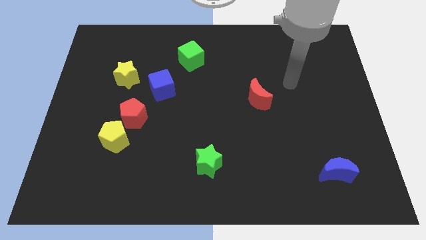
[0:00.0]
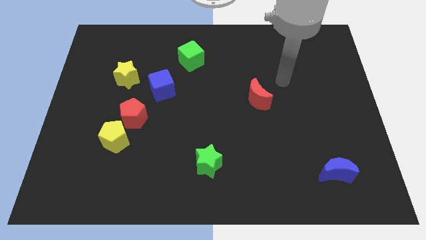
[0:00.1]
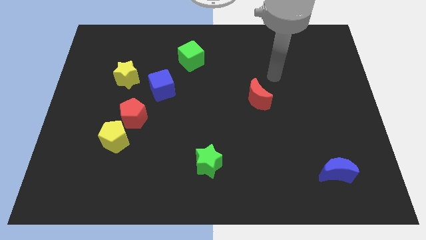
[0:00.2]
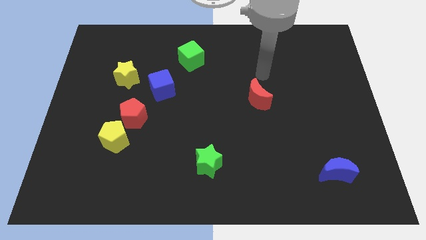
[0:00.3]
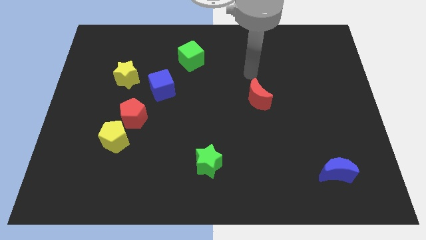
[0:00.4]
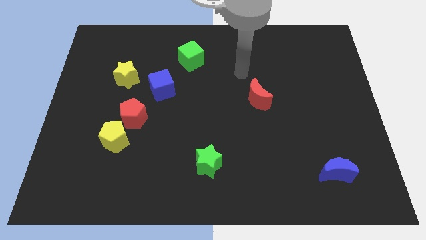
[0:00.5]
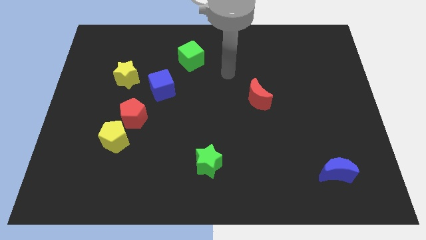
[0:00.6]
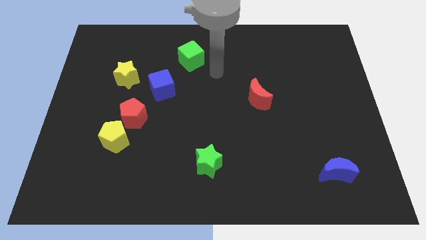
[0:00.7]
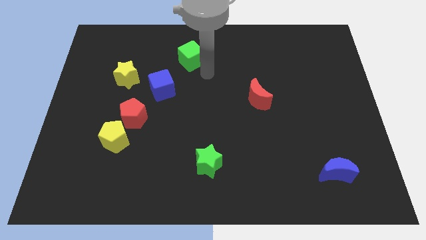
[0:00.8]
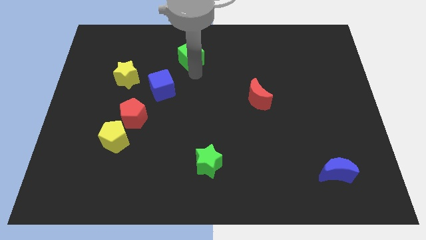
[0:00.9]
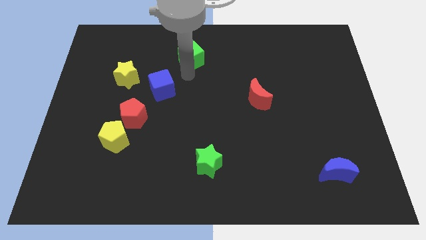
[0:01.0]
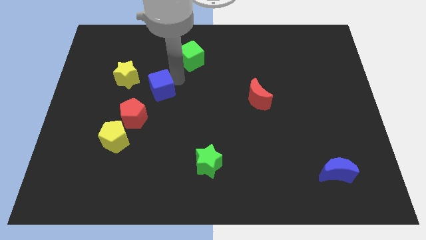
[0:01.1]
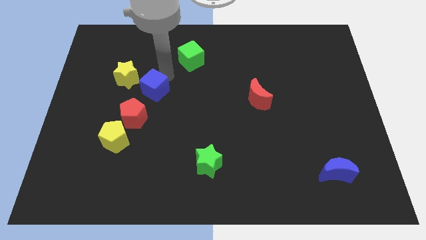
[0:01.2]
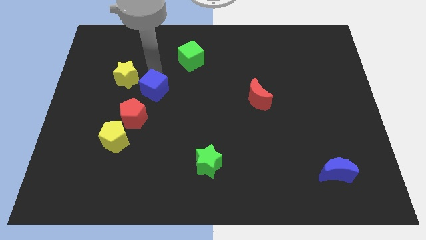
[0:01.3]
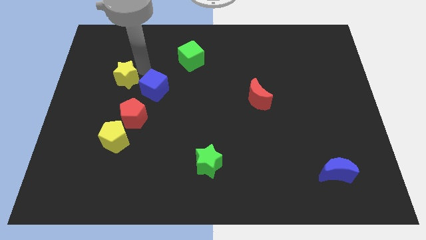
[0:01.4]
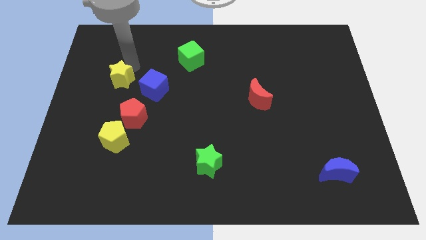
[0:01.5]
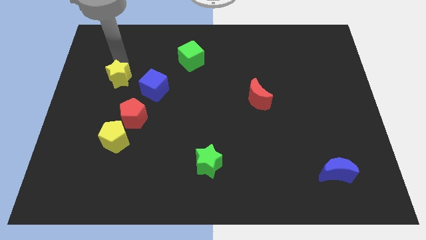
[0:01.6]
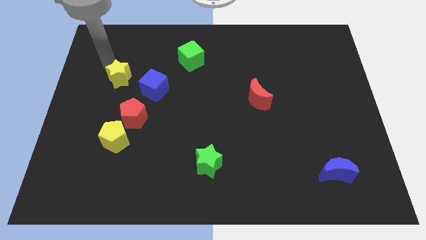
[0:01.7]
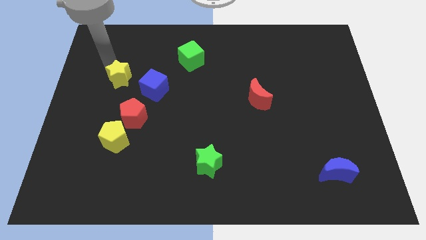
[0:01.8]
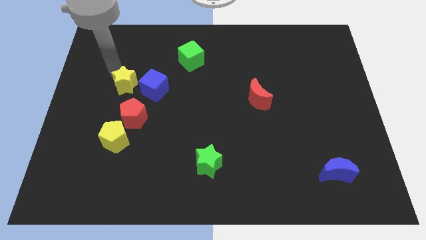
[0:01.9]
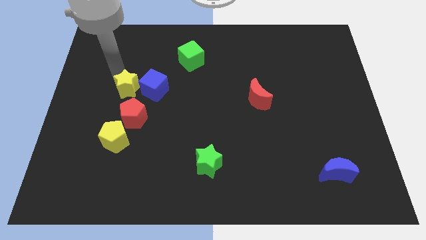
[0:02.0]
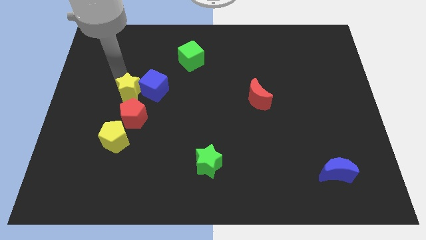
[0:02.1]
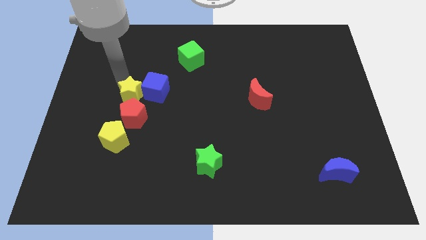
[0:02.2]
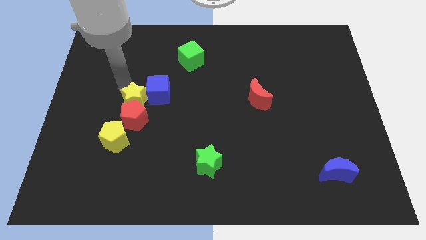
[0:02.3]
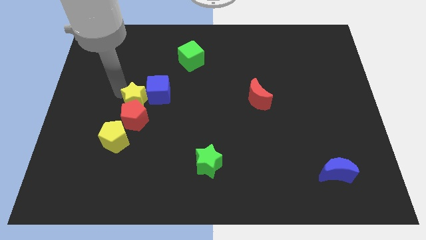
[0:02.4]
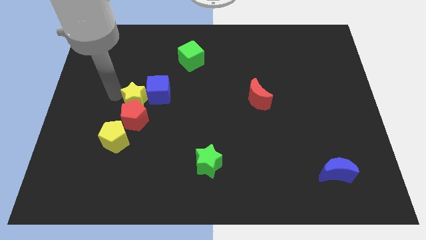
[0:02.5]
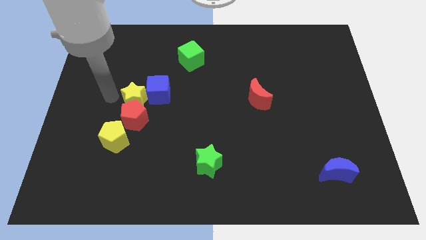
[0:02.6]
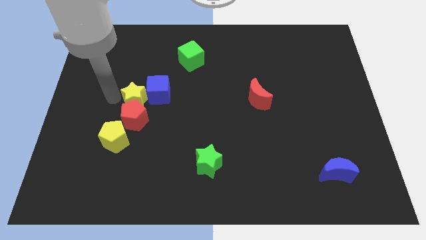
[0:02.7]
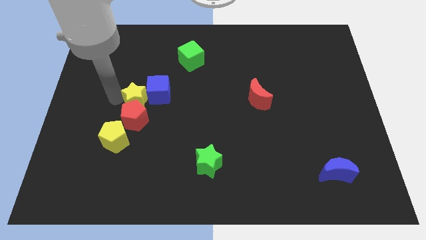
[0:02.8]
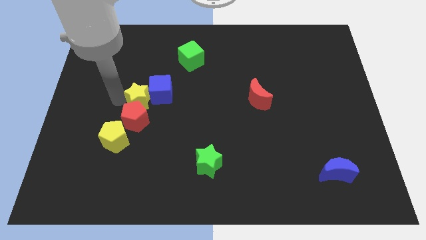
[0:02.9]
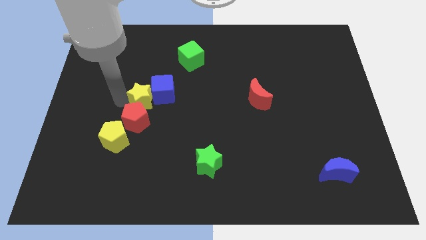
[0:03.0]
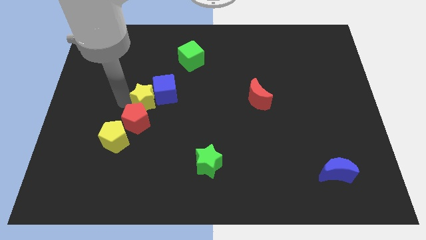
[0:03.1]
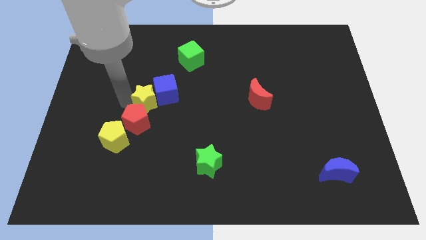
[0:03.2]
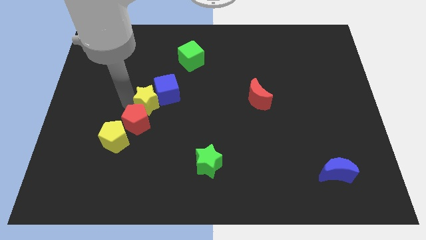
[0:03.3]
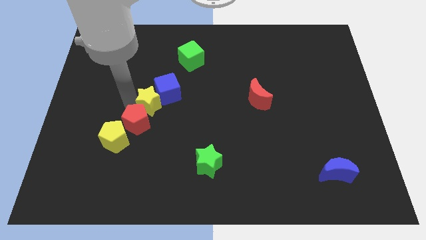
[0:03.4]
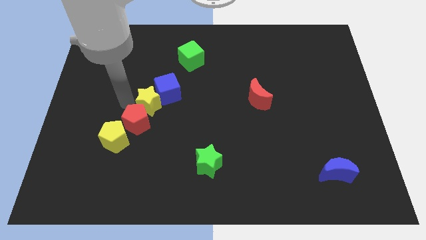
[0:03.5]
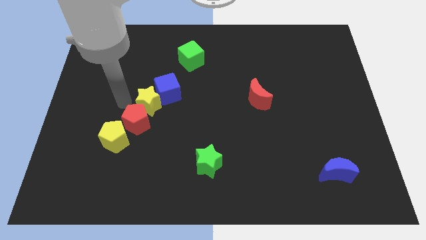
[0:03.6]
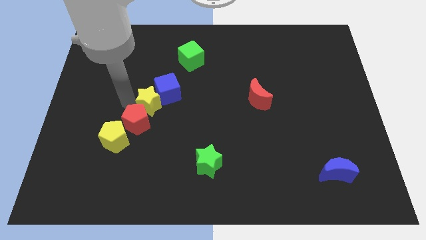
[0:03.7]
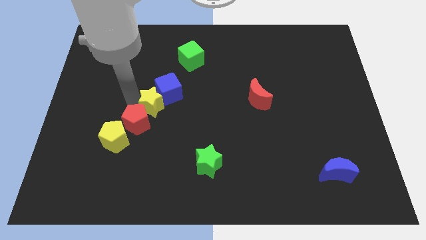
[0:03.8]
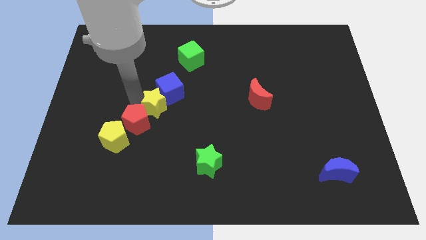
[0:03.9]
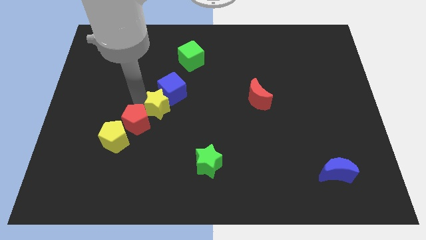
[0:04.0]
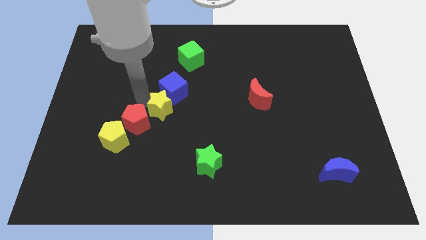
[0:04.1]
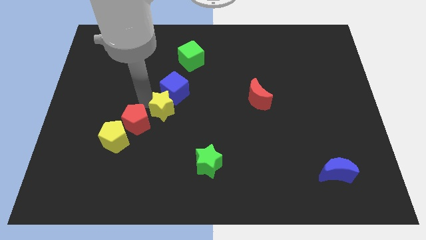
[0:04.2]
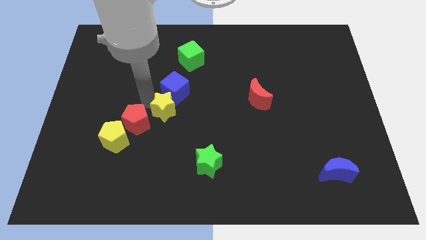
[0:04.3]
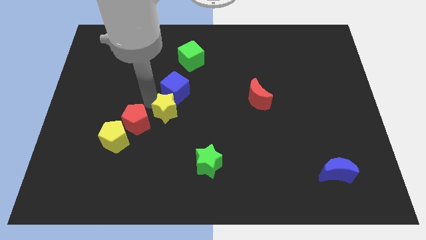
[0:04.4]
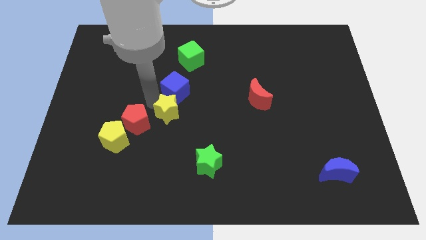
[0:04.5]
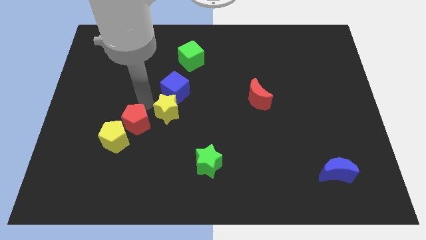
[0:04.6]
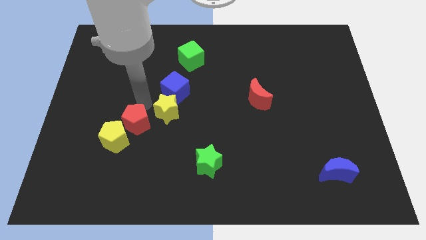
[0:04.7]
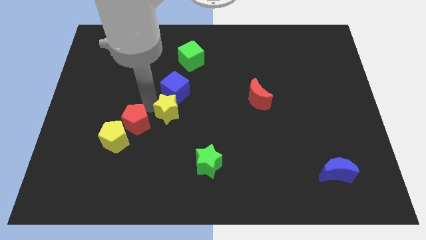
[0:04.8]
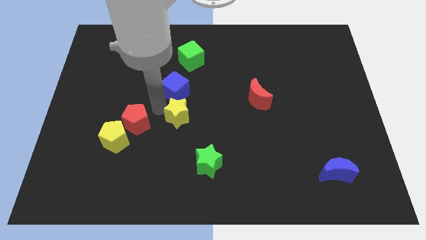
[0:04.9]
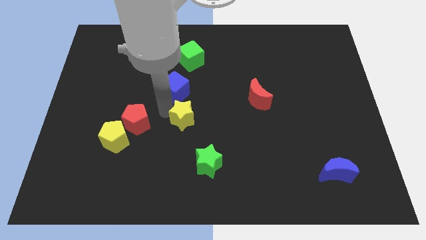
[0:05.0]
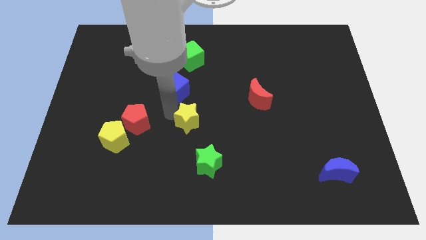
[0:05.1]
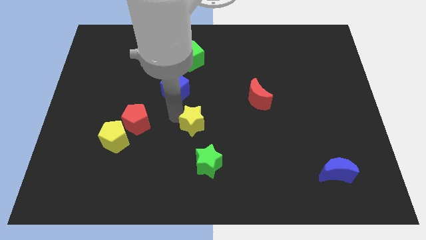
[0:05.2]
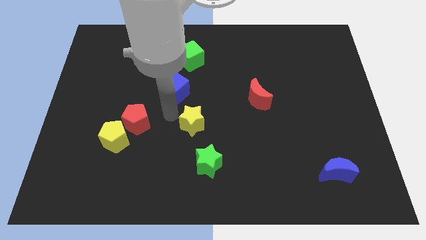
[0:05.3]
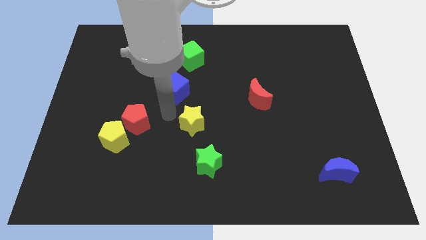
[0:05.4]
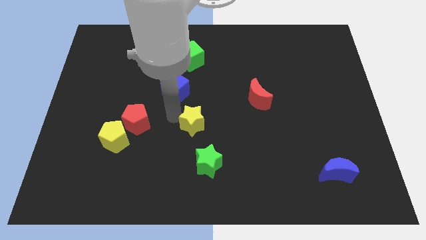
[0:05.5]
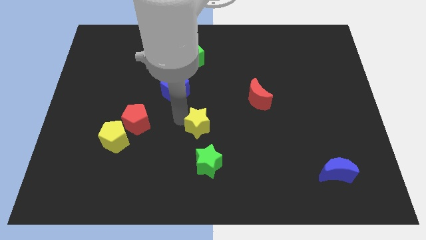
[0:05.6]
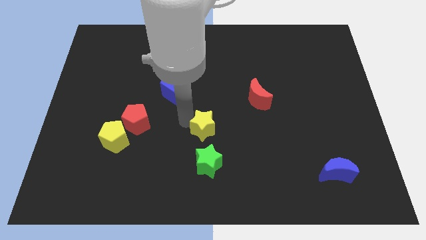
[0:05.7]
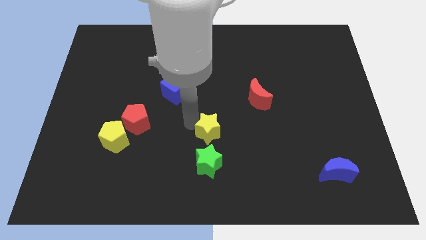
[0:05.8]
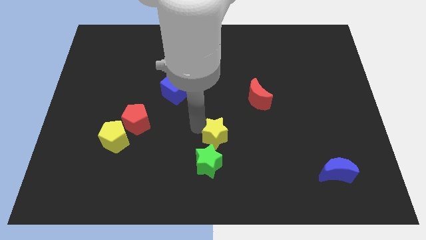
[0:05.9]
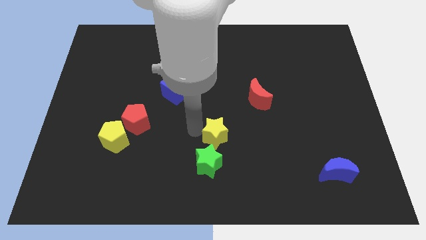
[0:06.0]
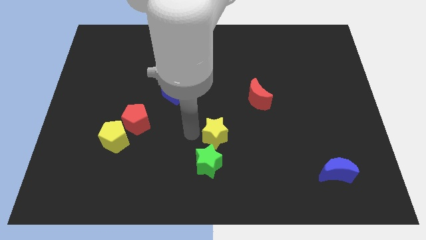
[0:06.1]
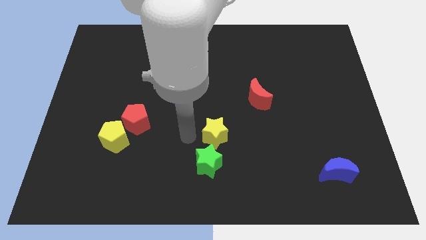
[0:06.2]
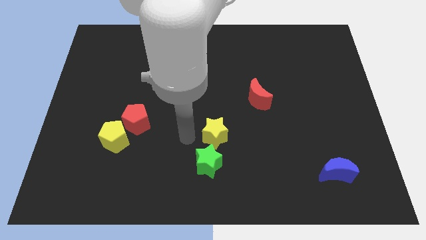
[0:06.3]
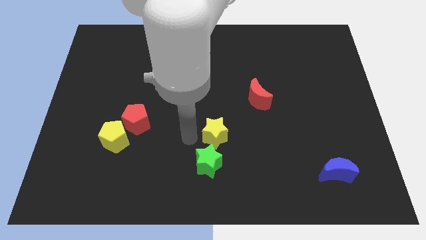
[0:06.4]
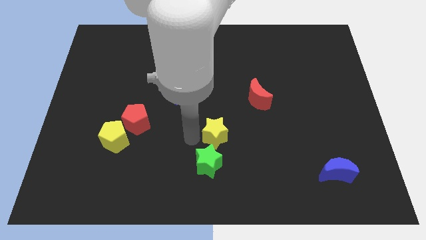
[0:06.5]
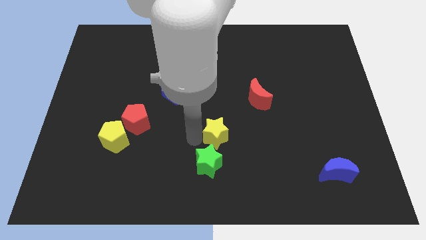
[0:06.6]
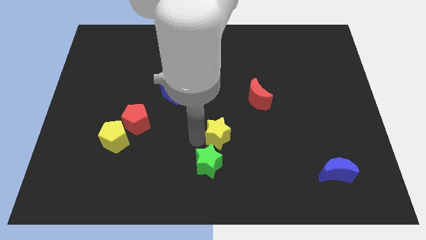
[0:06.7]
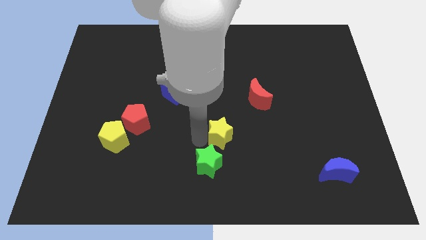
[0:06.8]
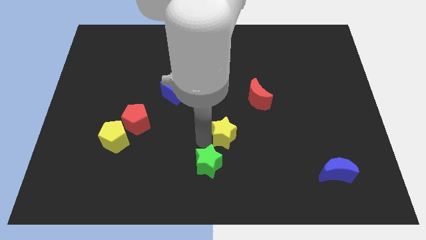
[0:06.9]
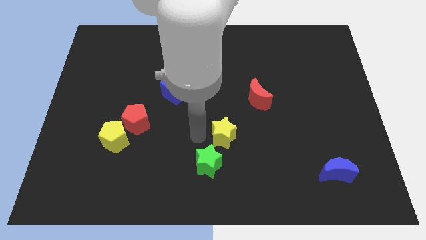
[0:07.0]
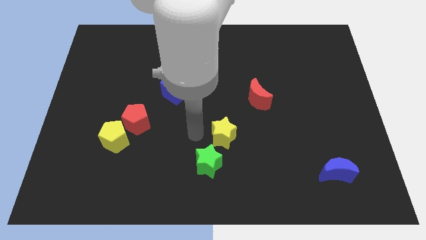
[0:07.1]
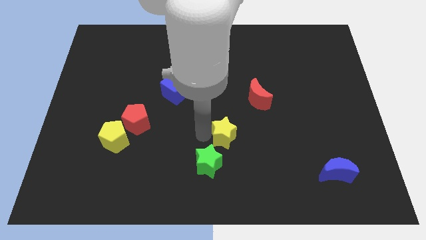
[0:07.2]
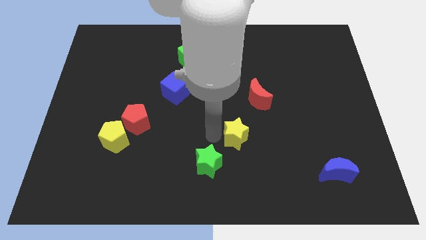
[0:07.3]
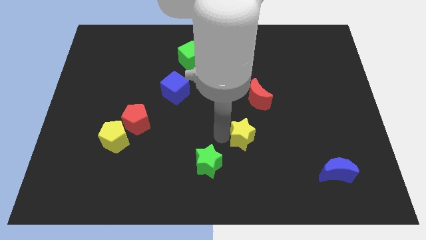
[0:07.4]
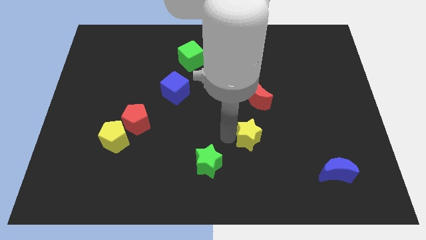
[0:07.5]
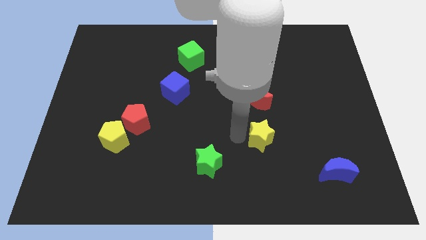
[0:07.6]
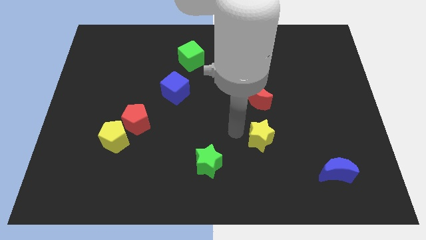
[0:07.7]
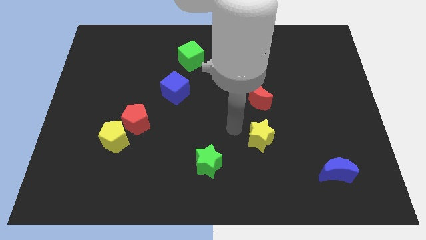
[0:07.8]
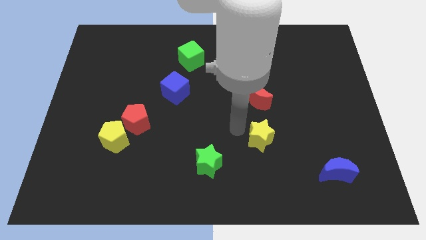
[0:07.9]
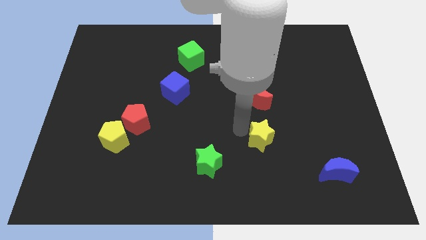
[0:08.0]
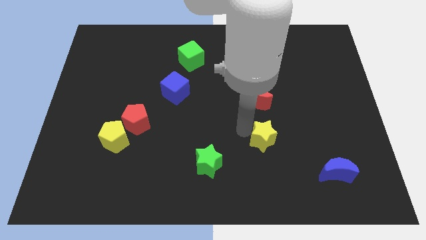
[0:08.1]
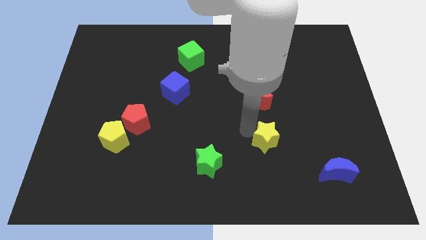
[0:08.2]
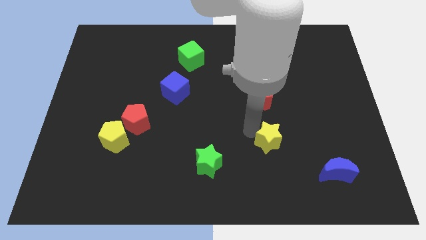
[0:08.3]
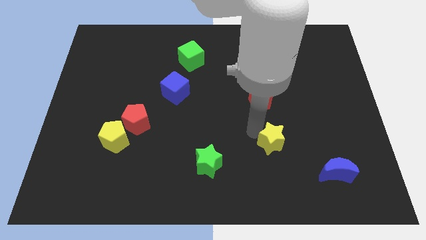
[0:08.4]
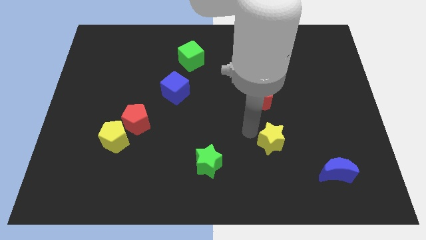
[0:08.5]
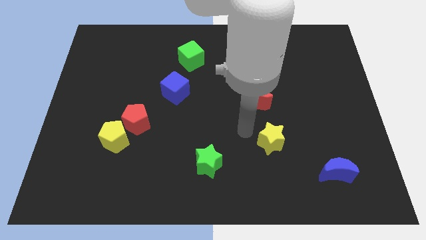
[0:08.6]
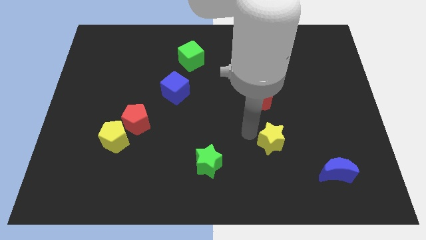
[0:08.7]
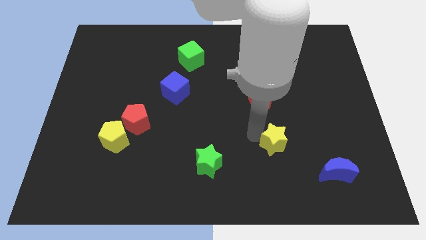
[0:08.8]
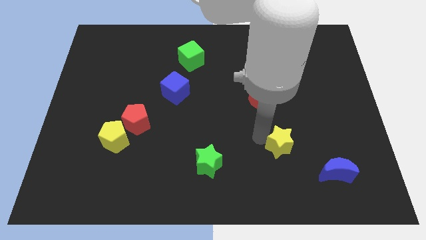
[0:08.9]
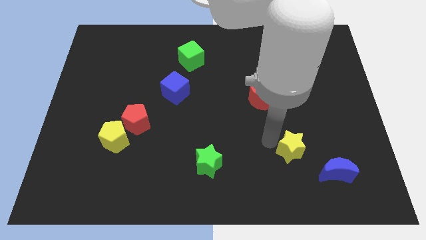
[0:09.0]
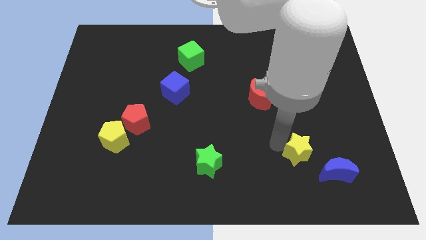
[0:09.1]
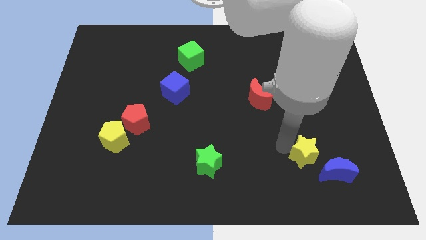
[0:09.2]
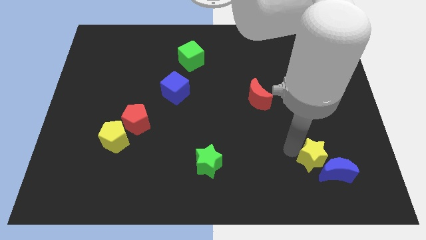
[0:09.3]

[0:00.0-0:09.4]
move the yellow star to the blue moon
